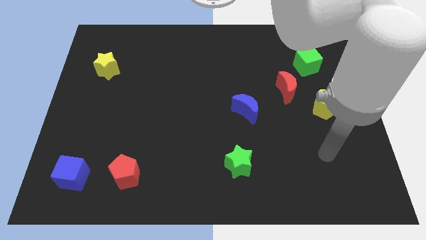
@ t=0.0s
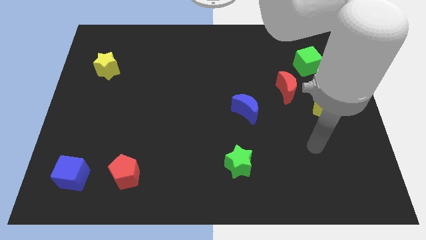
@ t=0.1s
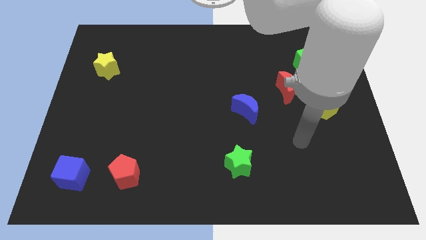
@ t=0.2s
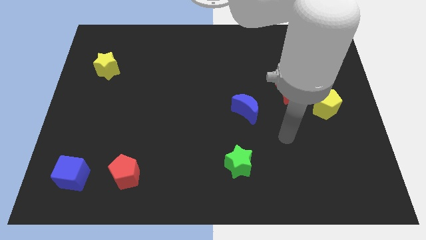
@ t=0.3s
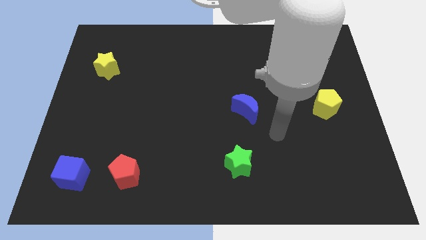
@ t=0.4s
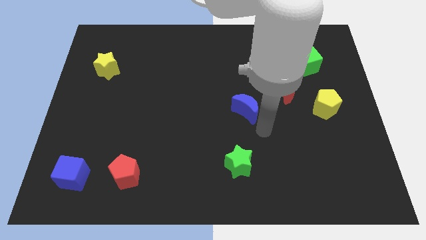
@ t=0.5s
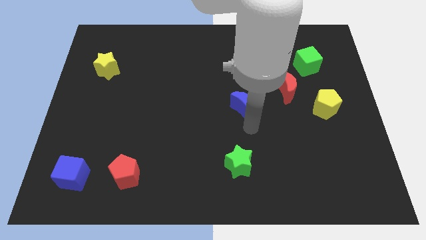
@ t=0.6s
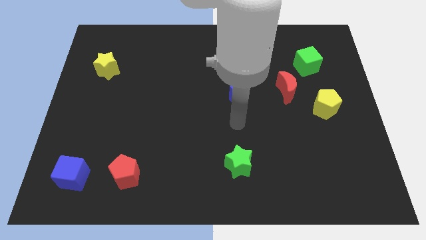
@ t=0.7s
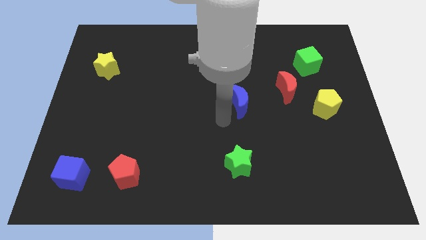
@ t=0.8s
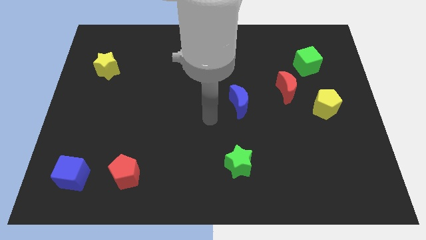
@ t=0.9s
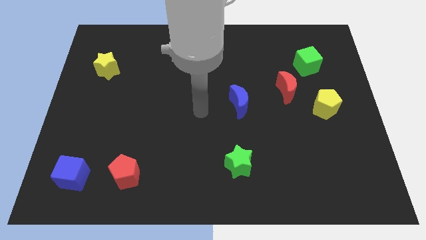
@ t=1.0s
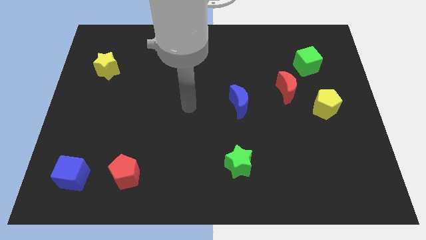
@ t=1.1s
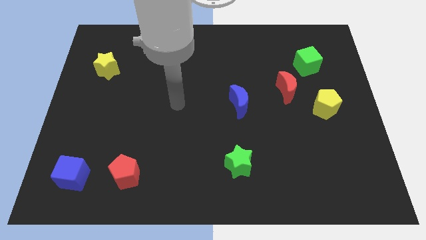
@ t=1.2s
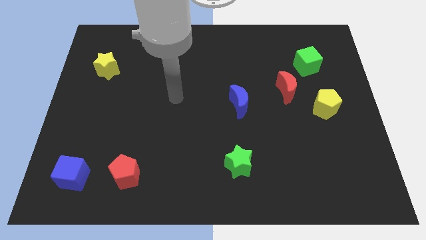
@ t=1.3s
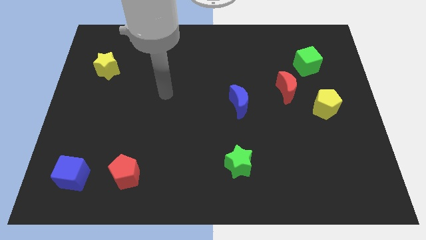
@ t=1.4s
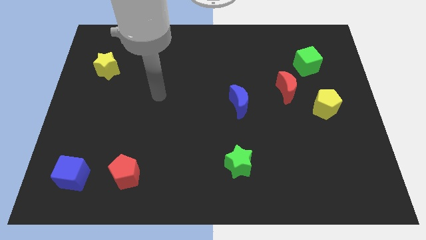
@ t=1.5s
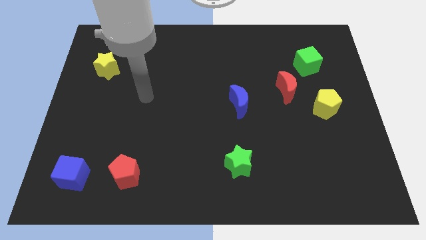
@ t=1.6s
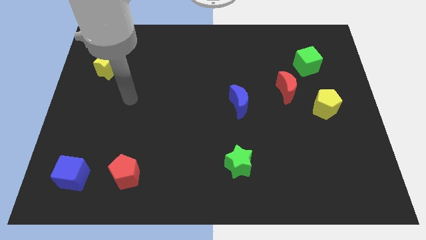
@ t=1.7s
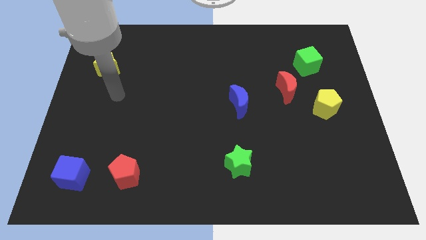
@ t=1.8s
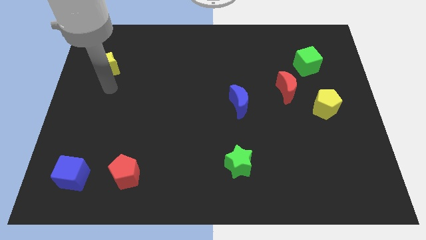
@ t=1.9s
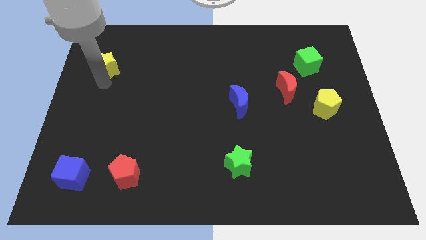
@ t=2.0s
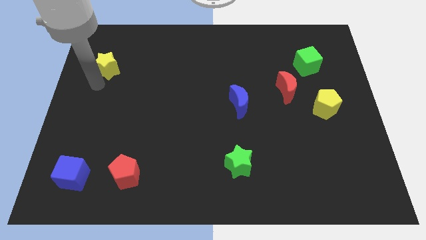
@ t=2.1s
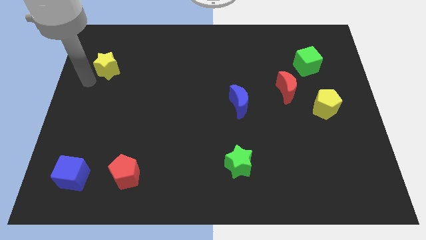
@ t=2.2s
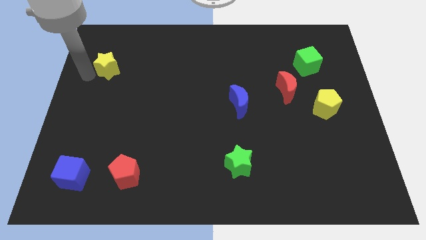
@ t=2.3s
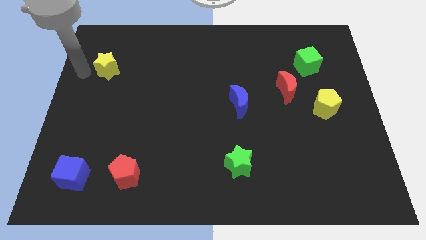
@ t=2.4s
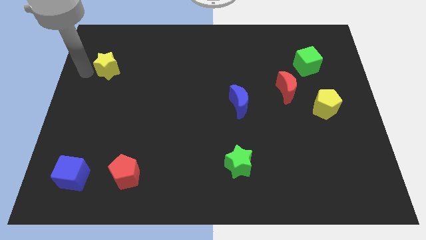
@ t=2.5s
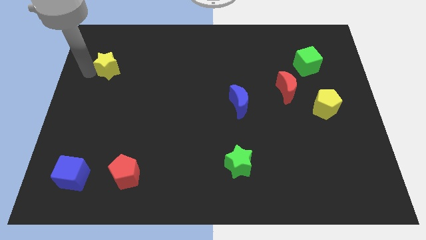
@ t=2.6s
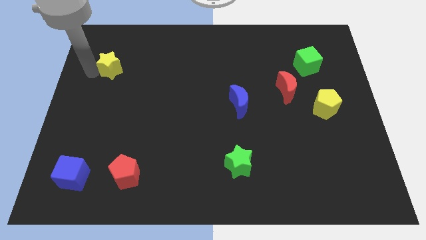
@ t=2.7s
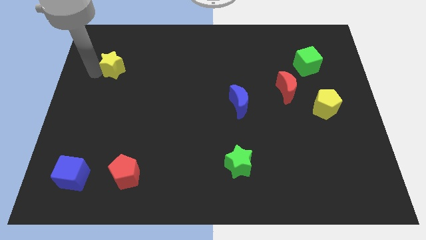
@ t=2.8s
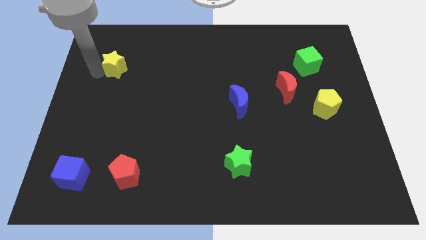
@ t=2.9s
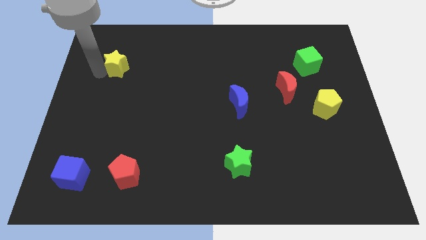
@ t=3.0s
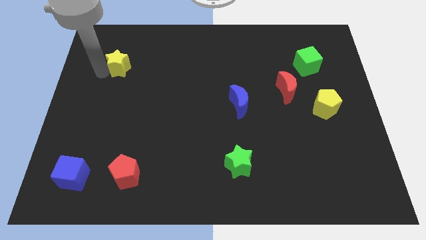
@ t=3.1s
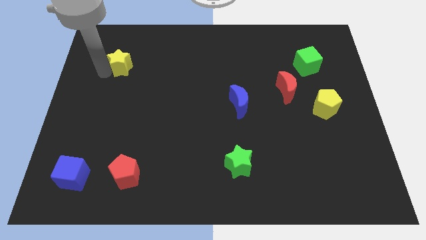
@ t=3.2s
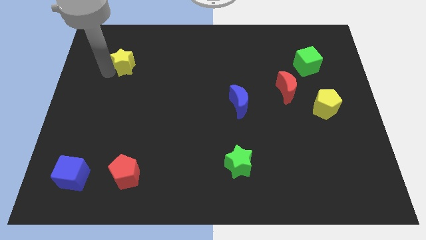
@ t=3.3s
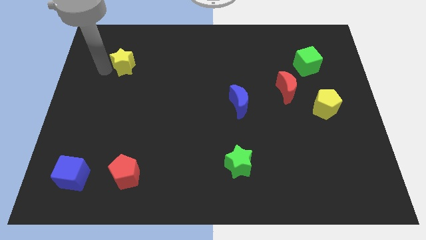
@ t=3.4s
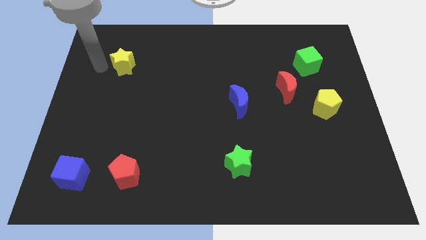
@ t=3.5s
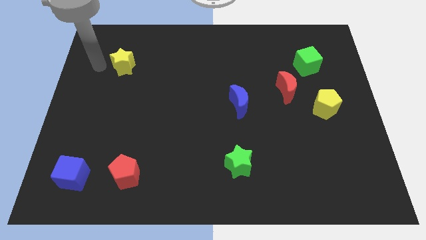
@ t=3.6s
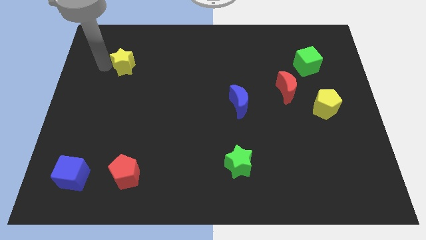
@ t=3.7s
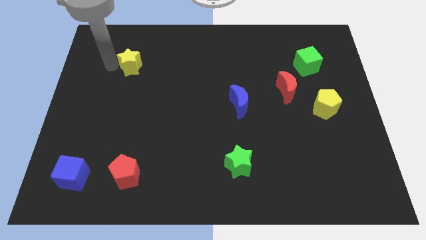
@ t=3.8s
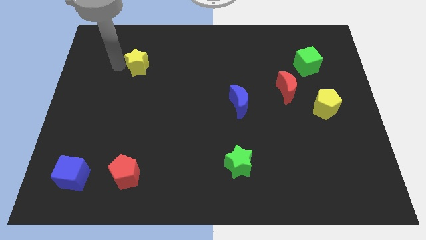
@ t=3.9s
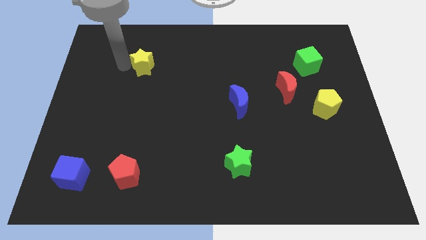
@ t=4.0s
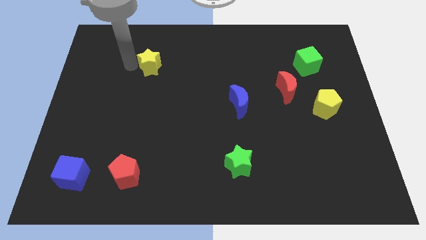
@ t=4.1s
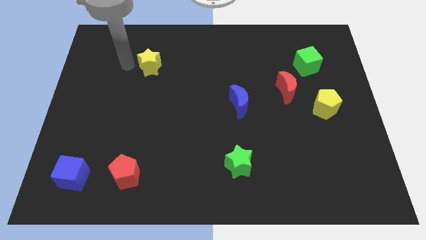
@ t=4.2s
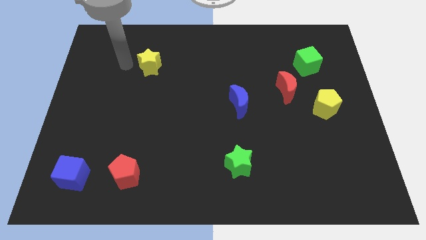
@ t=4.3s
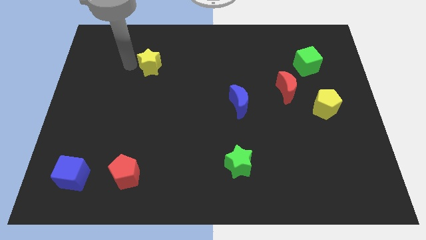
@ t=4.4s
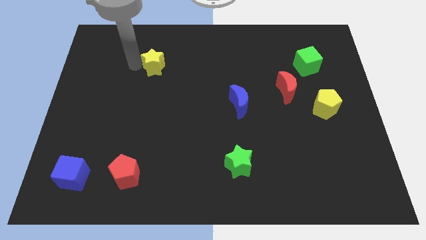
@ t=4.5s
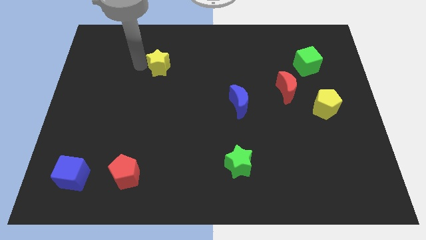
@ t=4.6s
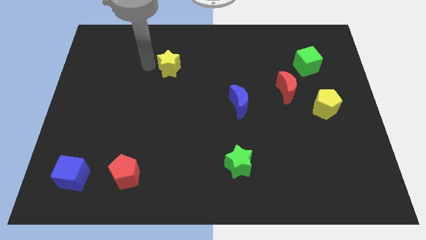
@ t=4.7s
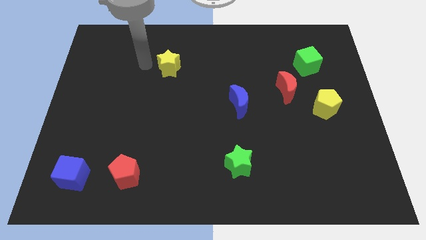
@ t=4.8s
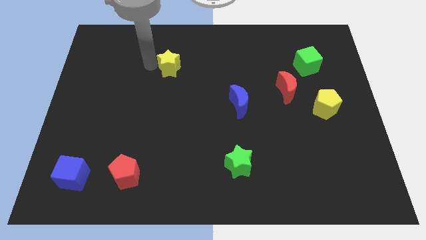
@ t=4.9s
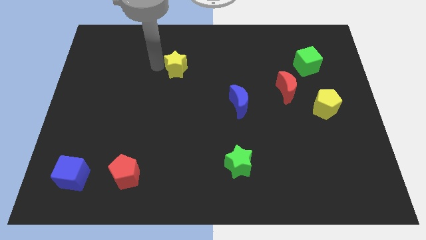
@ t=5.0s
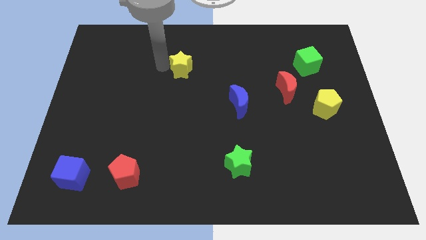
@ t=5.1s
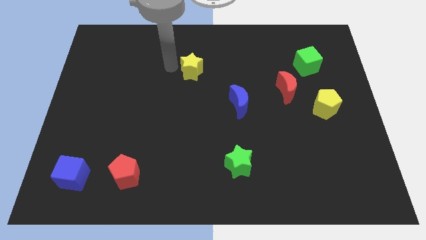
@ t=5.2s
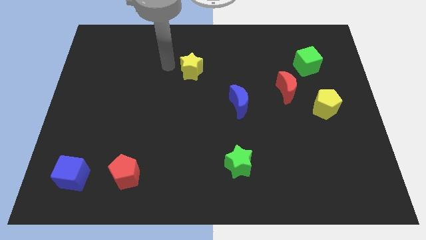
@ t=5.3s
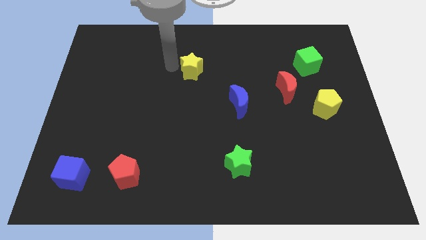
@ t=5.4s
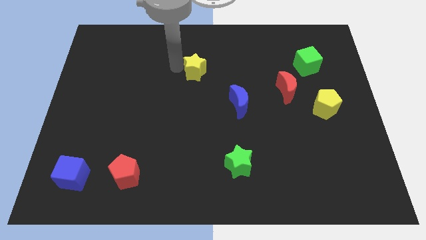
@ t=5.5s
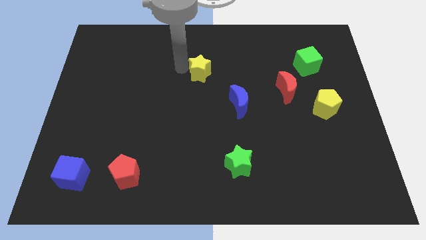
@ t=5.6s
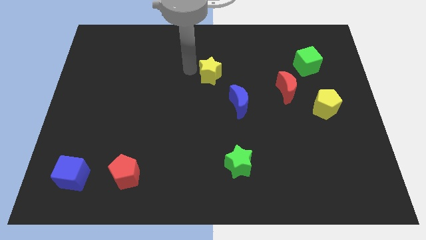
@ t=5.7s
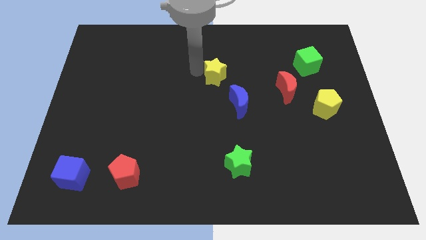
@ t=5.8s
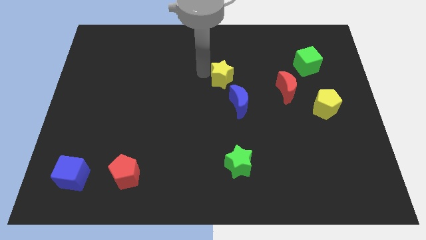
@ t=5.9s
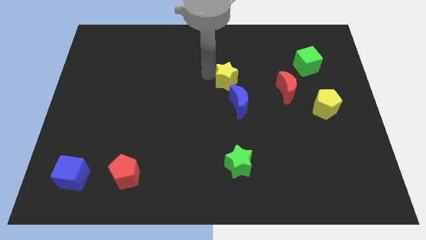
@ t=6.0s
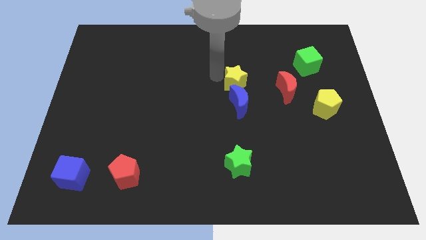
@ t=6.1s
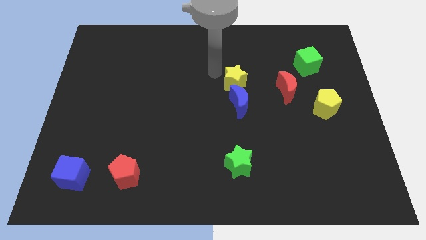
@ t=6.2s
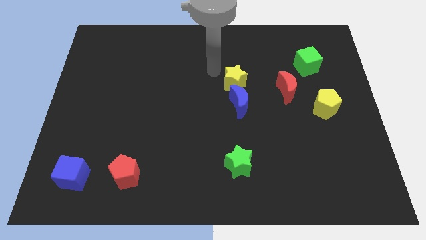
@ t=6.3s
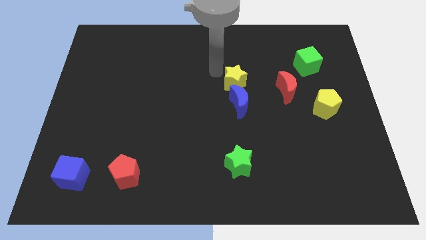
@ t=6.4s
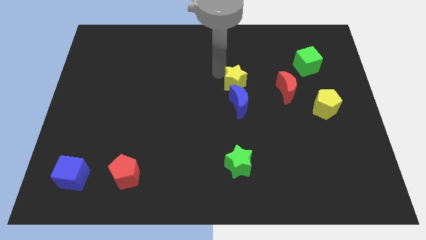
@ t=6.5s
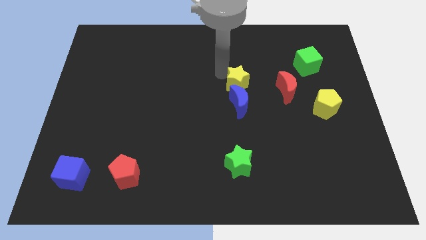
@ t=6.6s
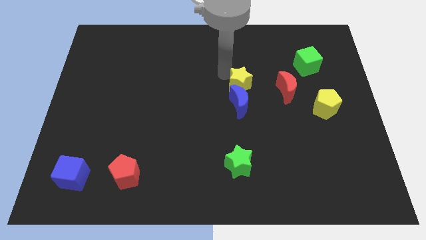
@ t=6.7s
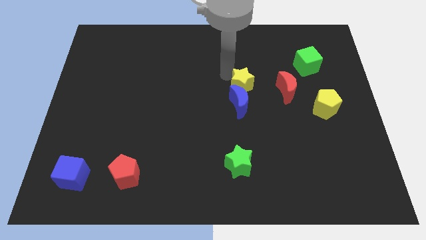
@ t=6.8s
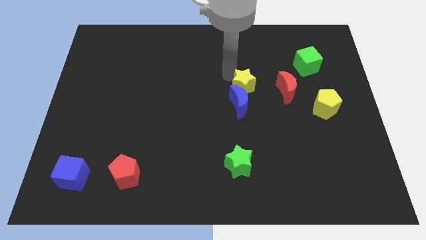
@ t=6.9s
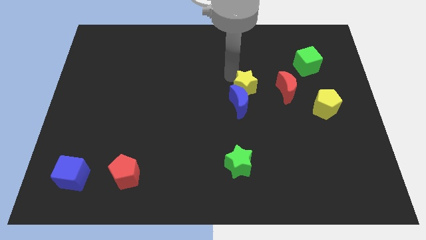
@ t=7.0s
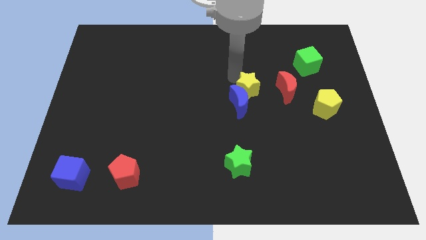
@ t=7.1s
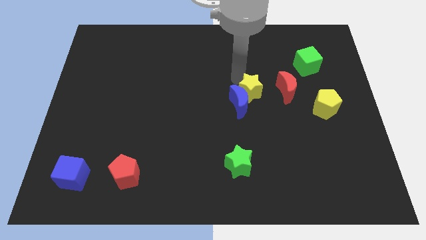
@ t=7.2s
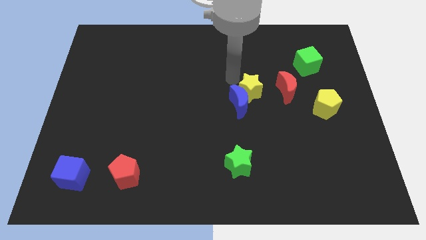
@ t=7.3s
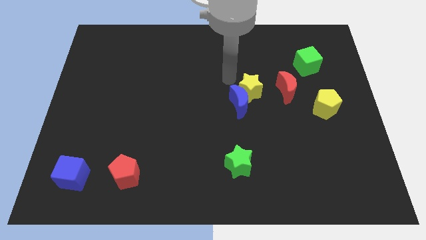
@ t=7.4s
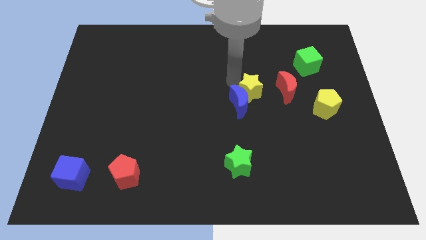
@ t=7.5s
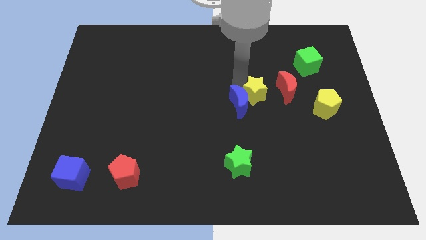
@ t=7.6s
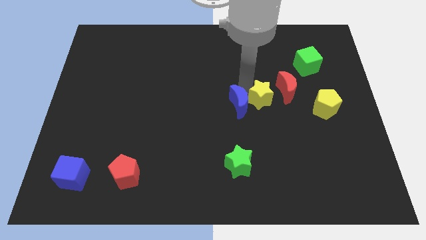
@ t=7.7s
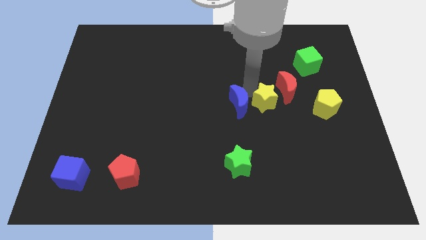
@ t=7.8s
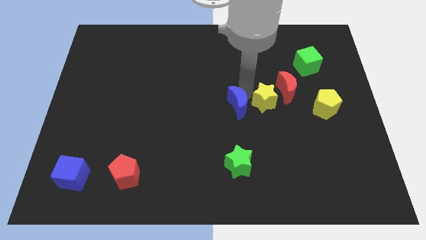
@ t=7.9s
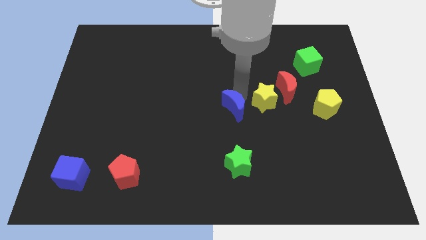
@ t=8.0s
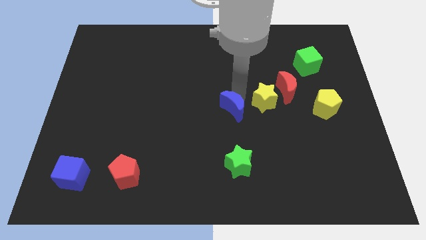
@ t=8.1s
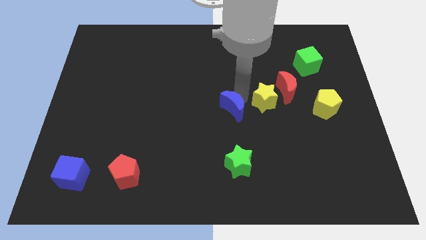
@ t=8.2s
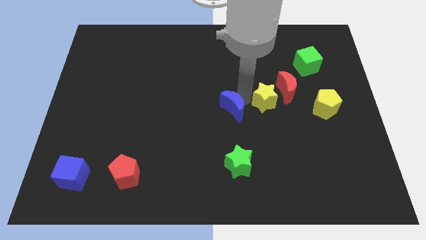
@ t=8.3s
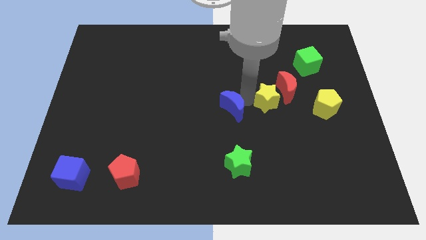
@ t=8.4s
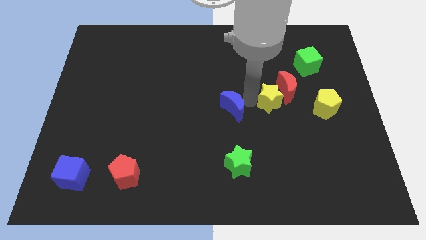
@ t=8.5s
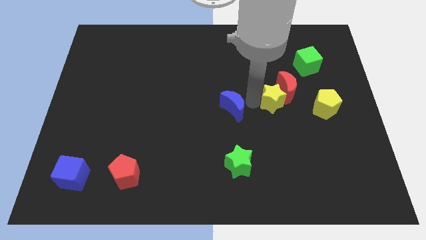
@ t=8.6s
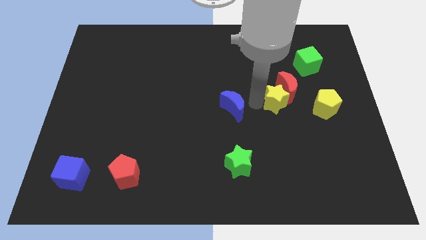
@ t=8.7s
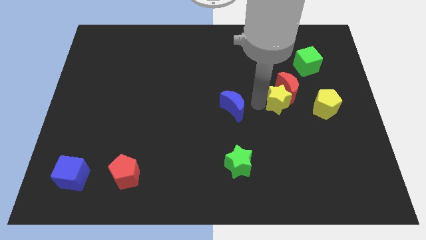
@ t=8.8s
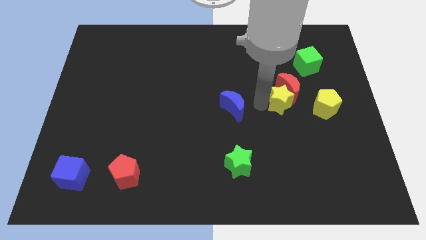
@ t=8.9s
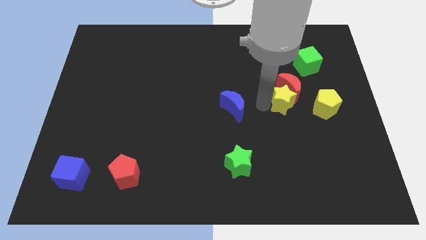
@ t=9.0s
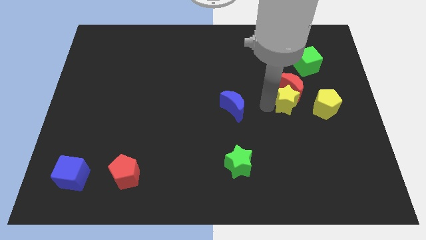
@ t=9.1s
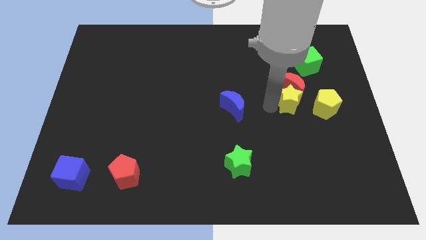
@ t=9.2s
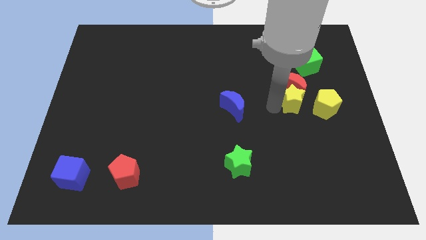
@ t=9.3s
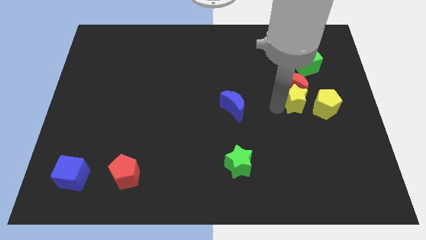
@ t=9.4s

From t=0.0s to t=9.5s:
put the yellow star below the green cube
